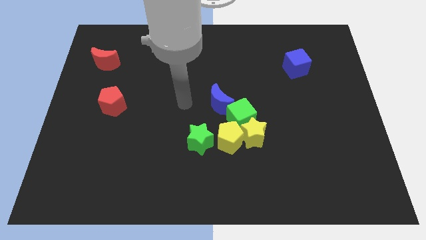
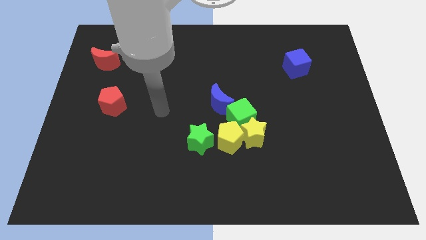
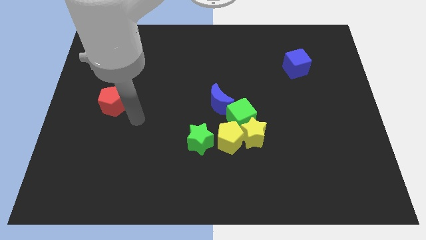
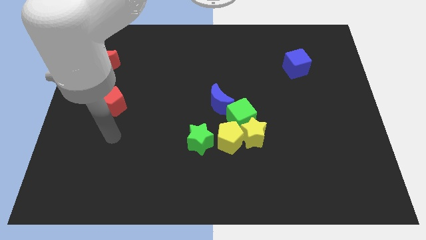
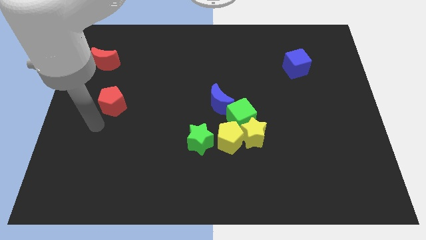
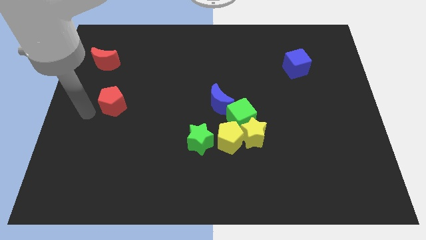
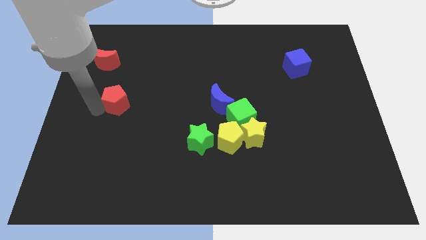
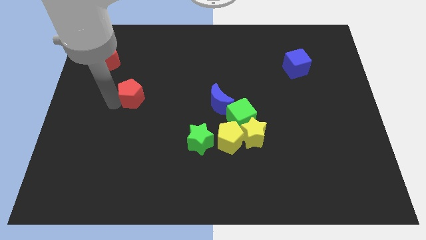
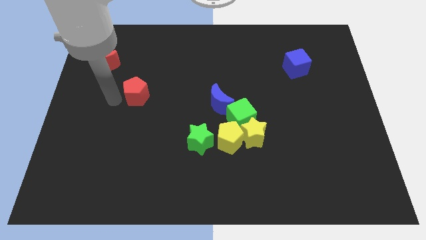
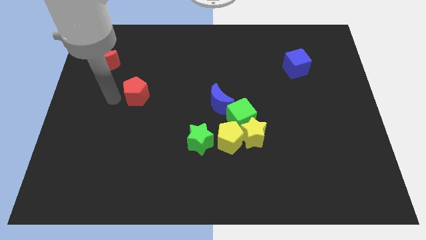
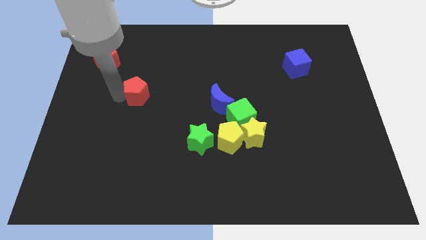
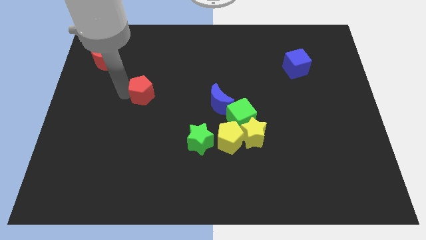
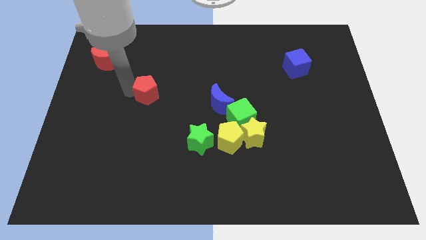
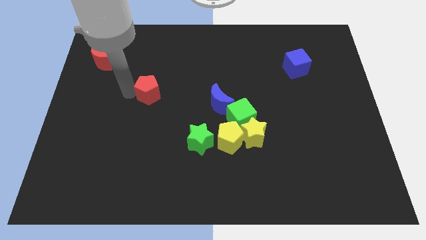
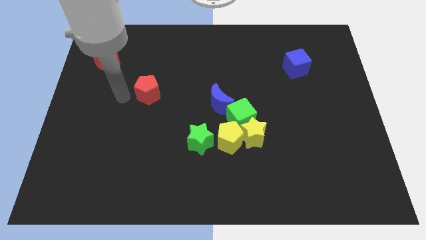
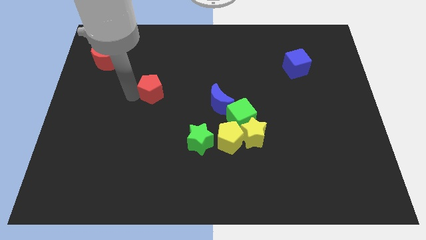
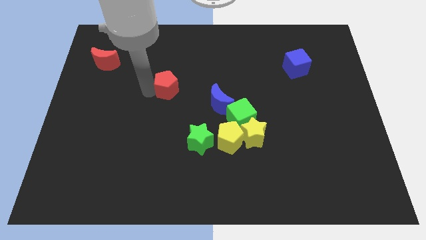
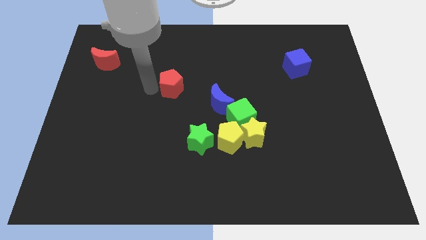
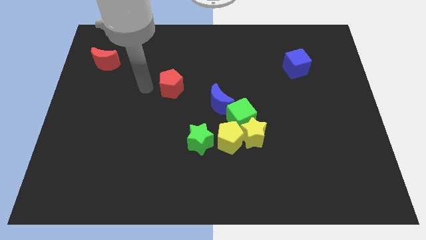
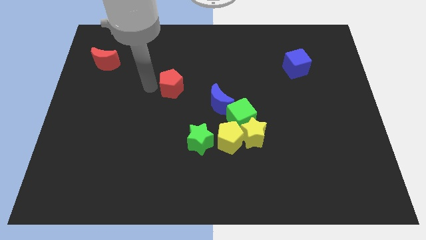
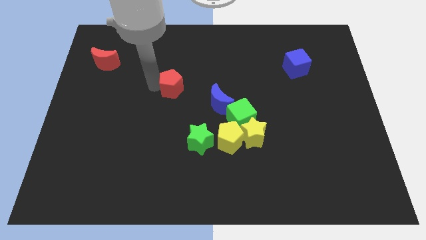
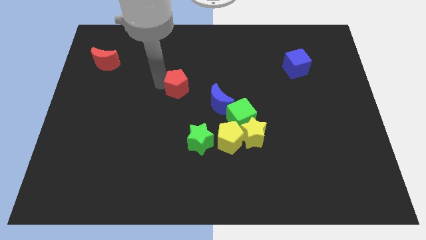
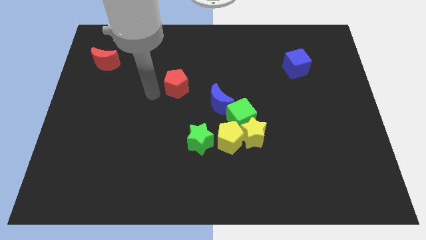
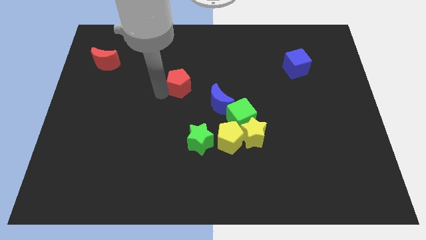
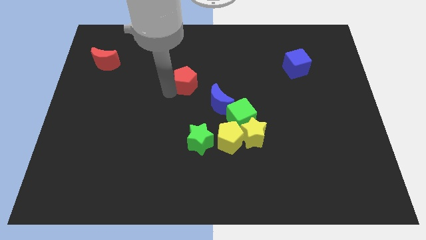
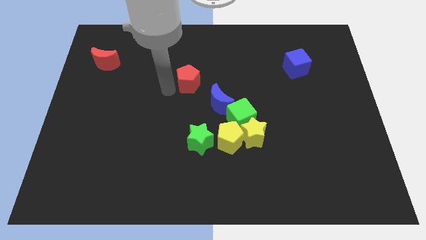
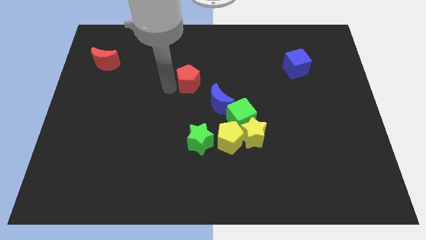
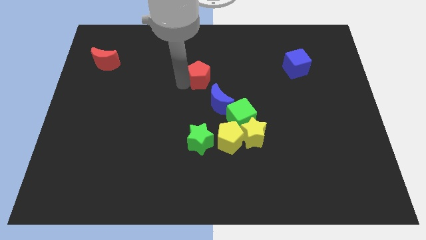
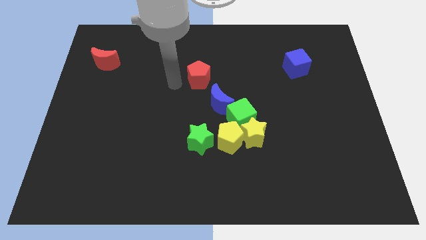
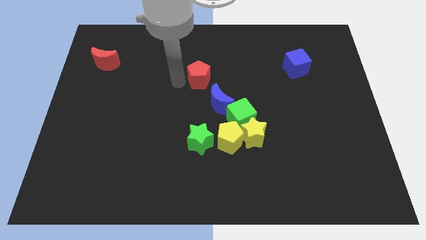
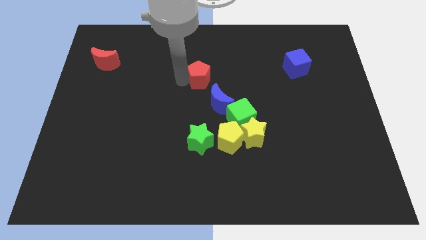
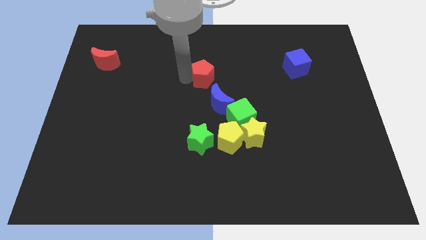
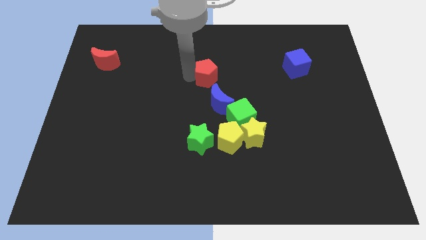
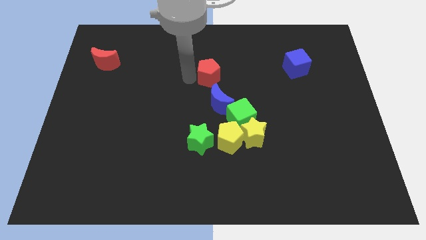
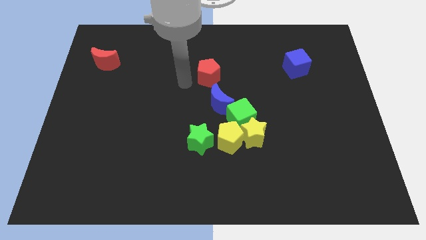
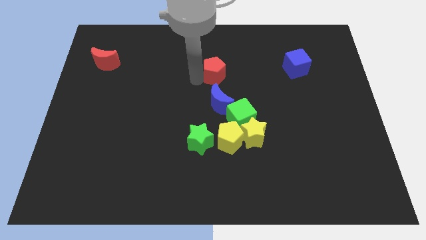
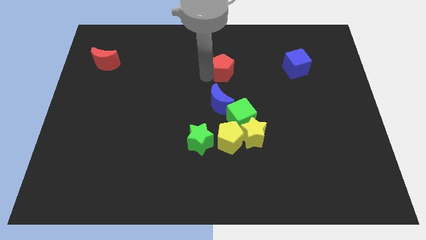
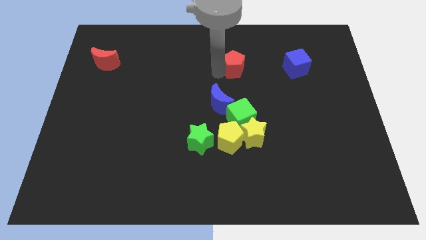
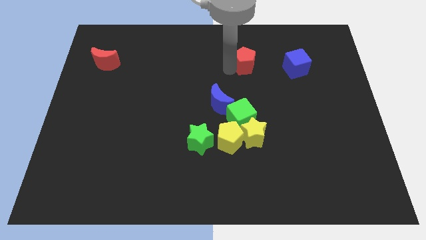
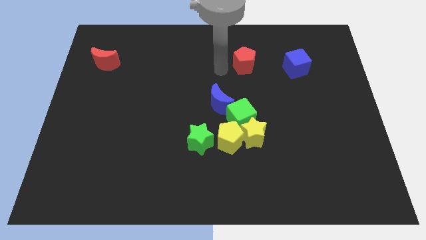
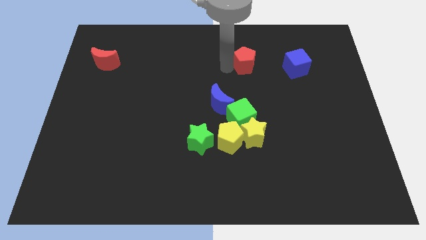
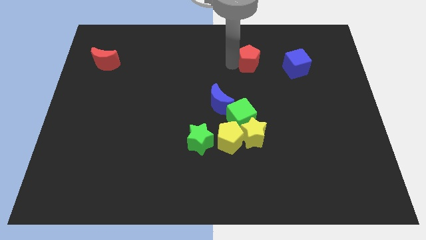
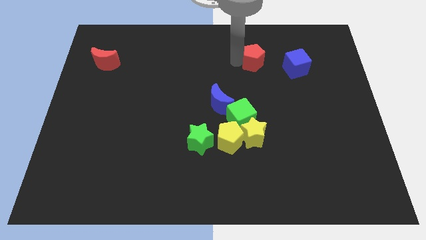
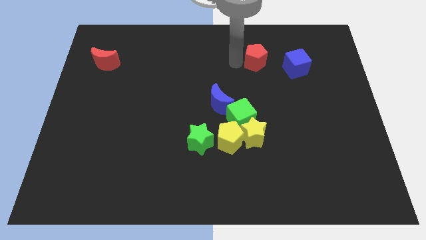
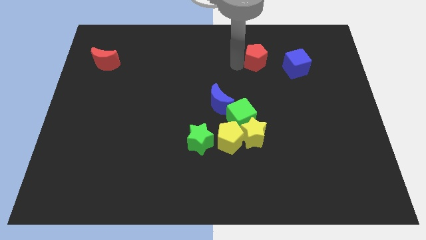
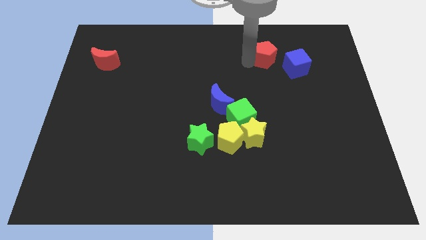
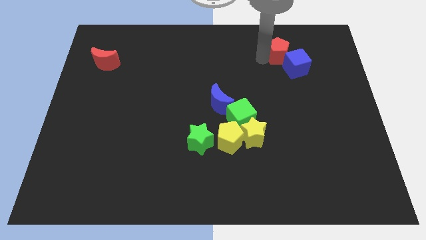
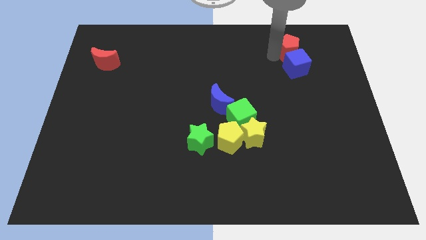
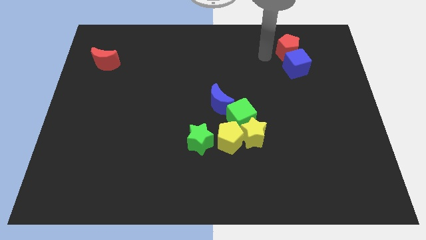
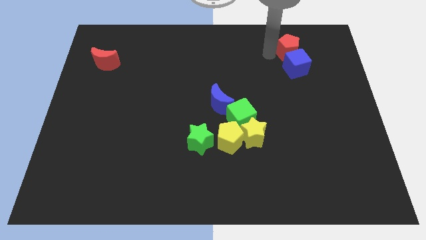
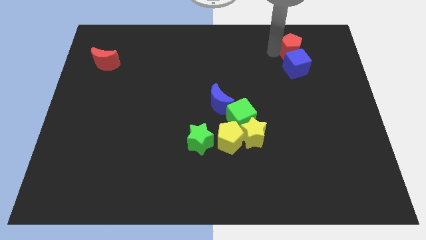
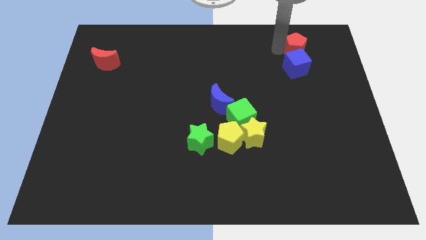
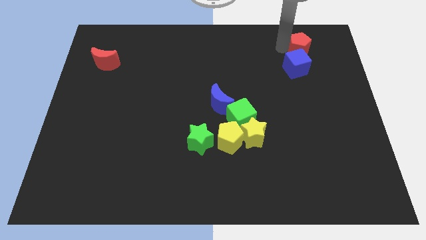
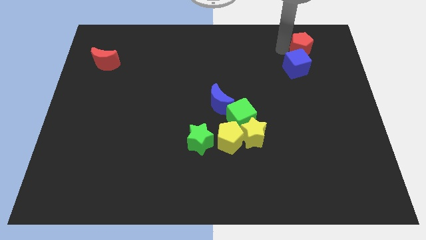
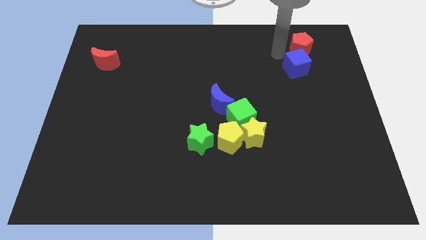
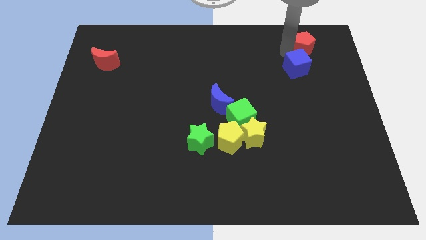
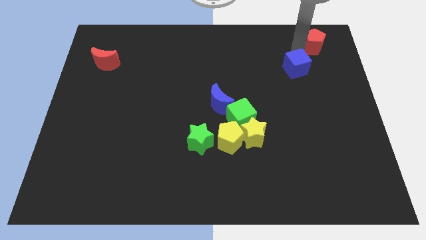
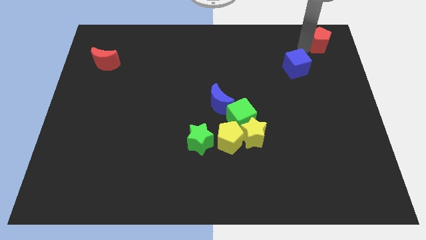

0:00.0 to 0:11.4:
put the red pentagon to the upper right corner

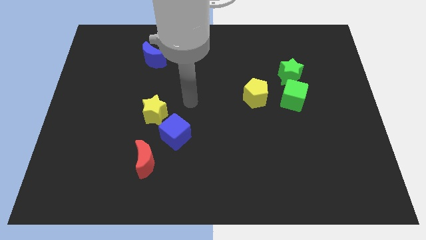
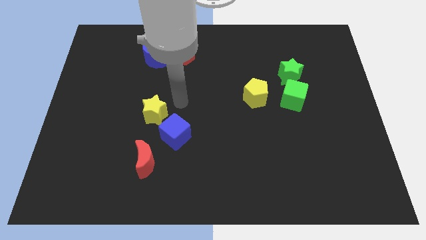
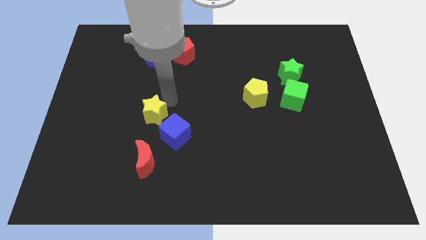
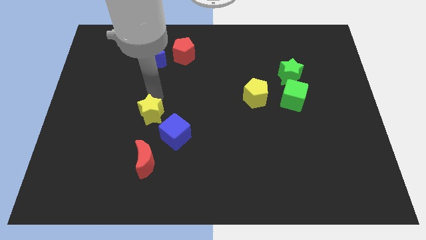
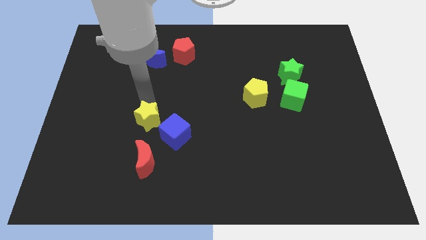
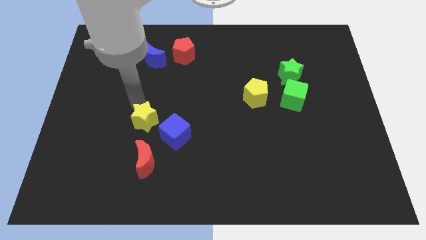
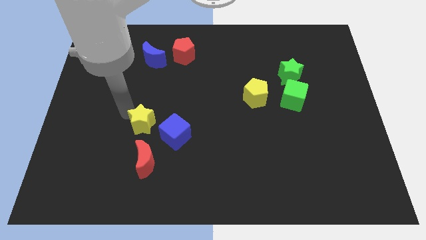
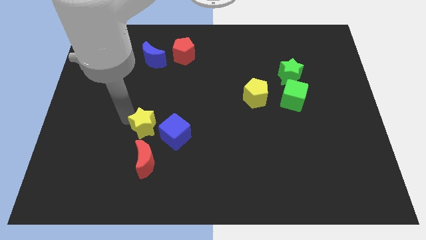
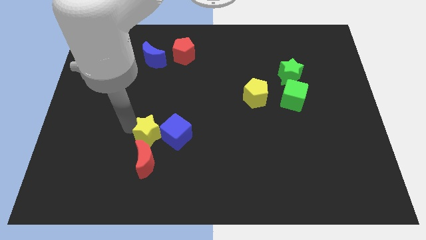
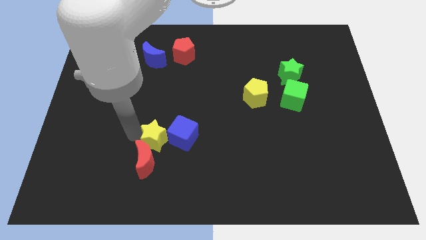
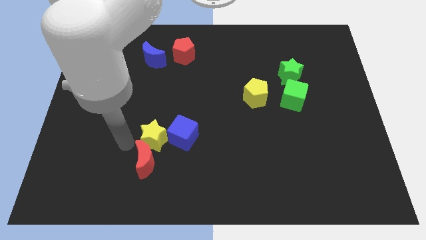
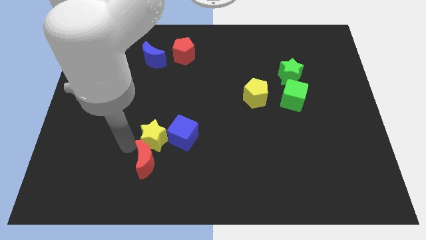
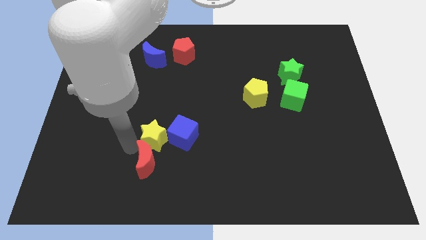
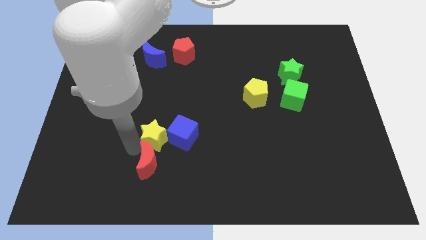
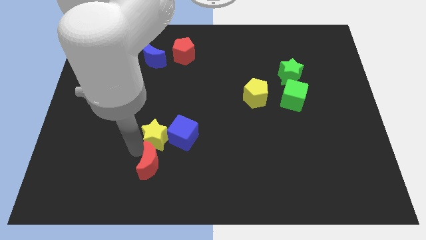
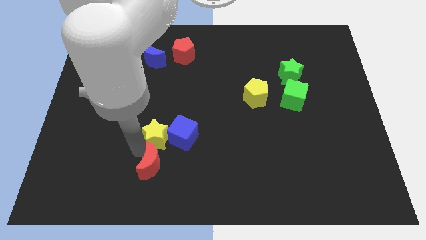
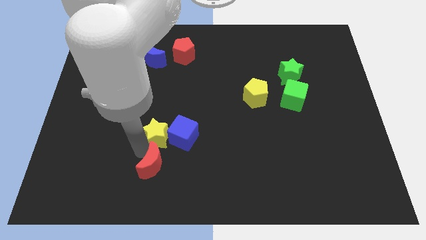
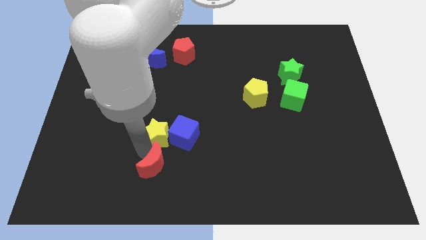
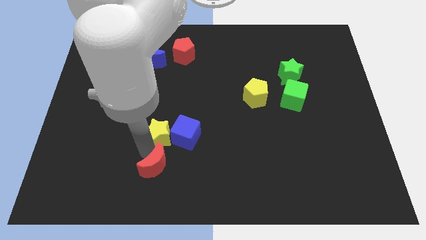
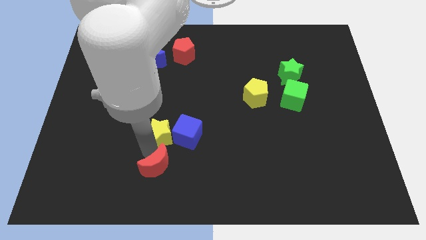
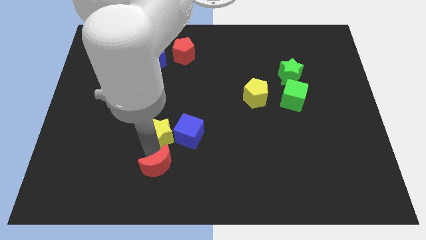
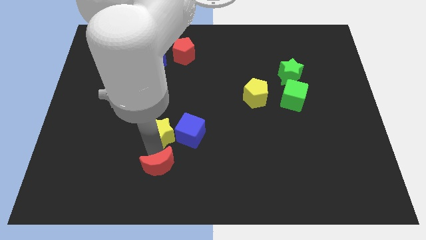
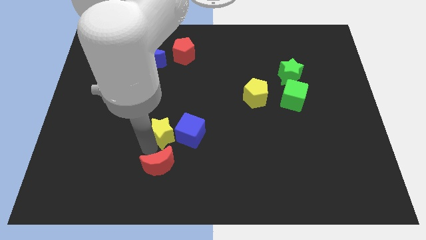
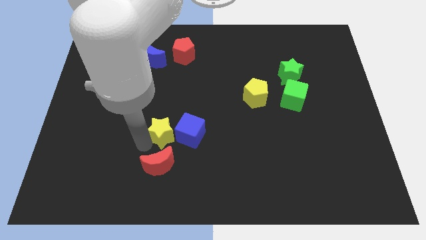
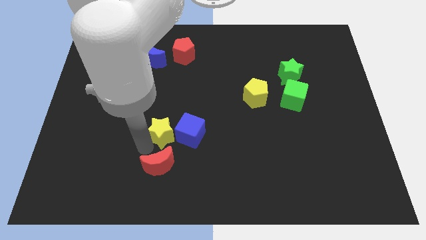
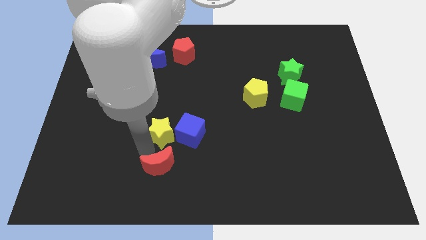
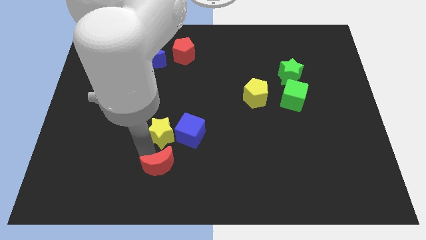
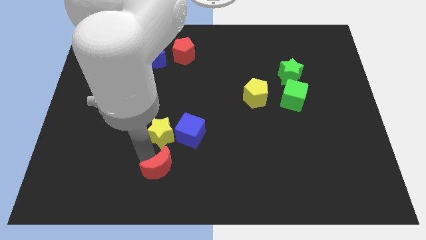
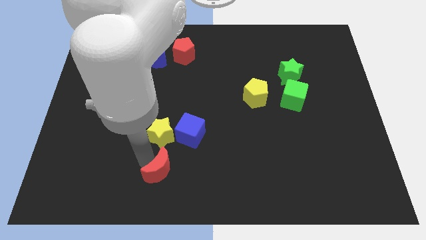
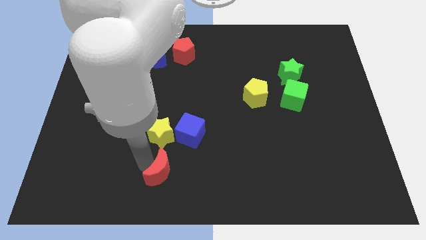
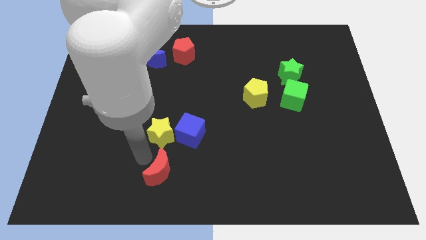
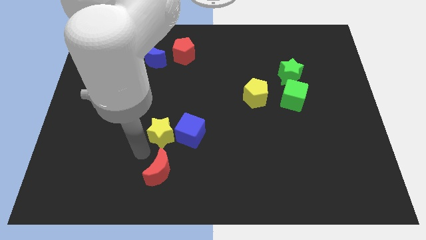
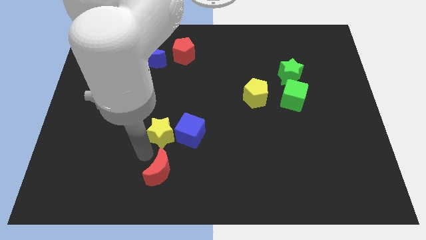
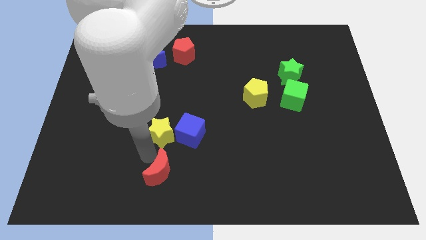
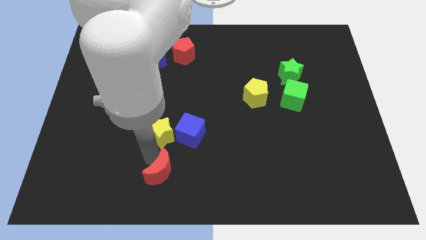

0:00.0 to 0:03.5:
put the red moon to the bottom
